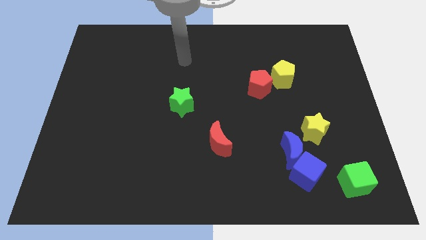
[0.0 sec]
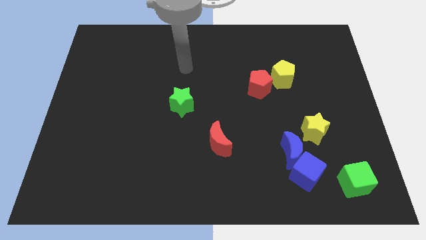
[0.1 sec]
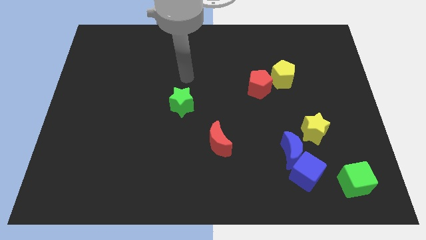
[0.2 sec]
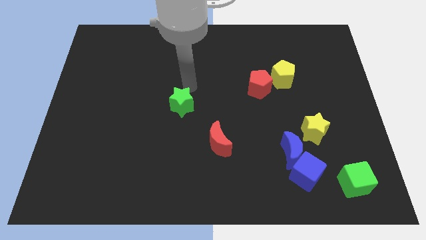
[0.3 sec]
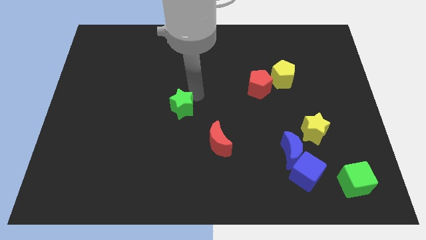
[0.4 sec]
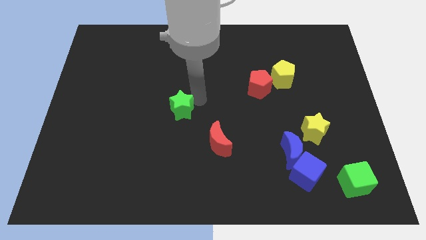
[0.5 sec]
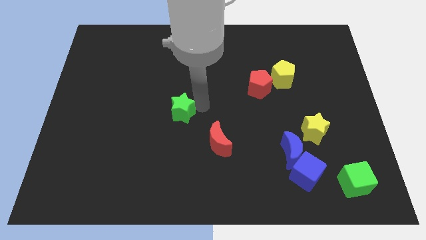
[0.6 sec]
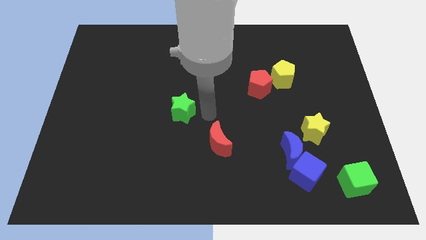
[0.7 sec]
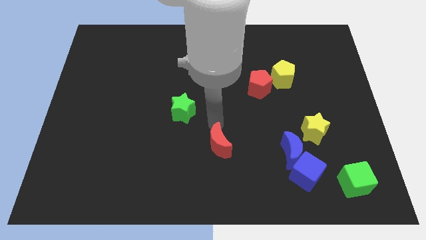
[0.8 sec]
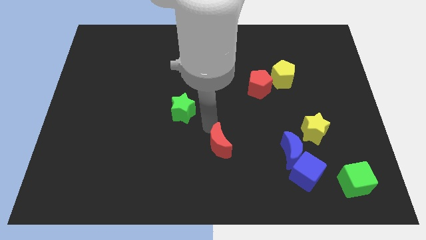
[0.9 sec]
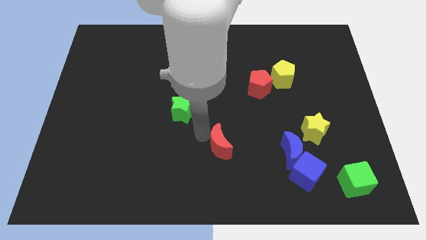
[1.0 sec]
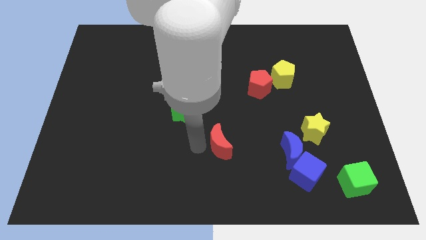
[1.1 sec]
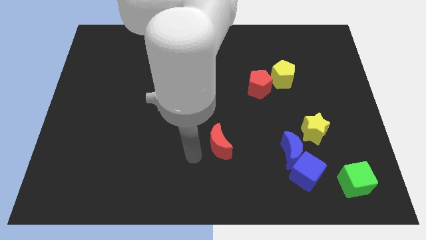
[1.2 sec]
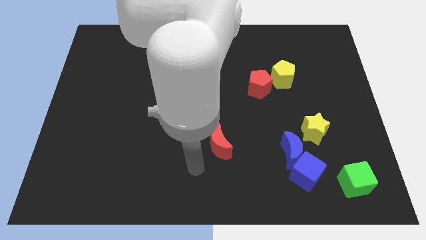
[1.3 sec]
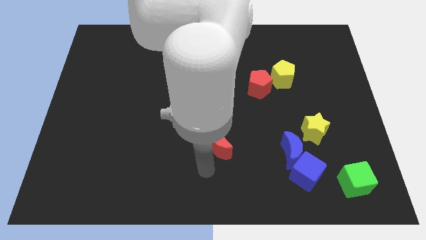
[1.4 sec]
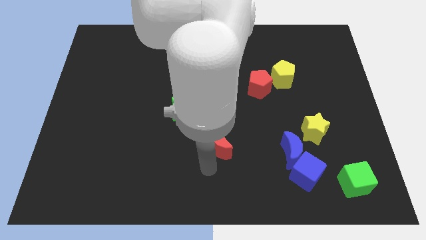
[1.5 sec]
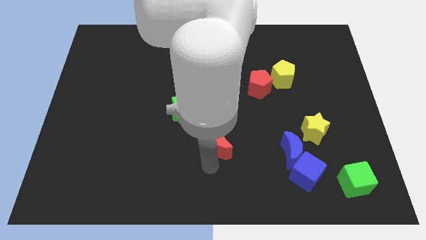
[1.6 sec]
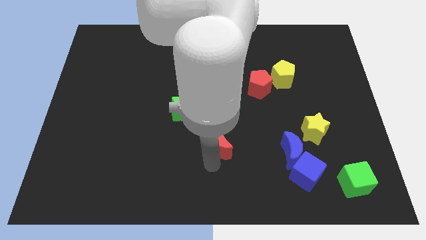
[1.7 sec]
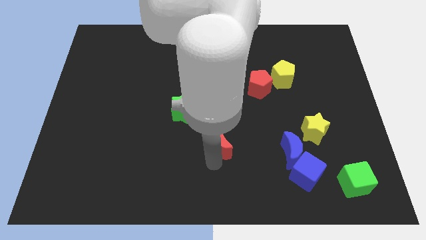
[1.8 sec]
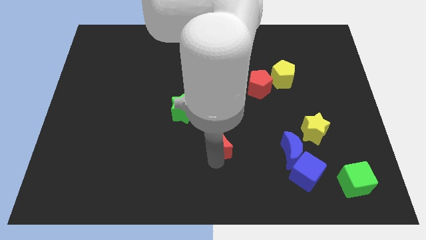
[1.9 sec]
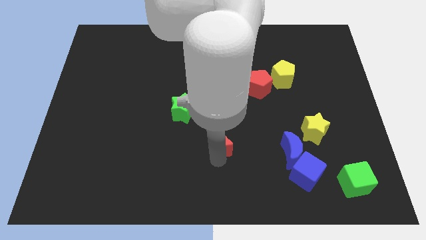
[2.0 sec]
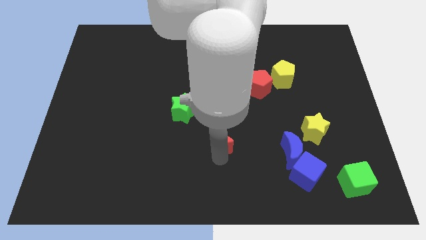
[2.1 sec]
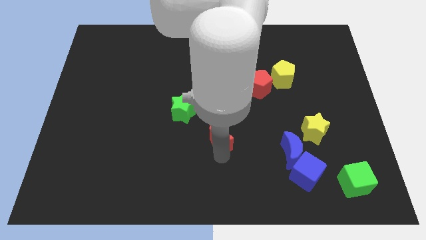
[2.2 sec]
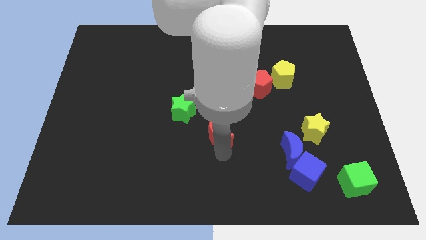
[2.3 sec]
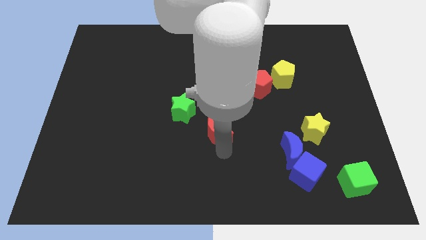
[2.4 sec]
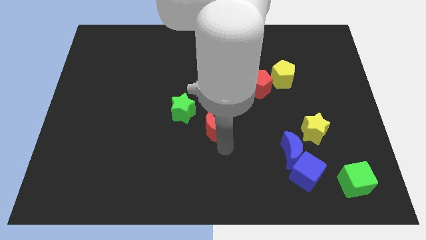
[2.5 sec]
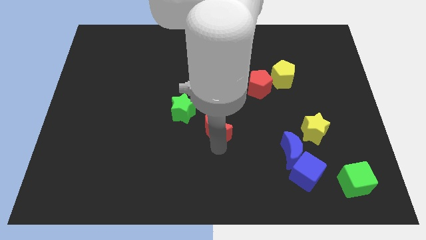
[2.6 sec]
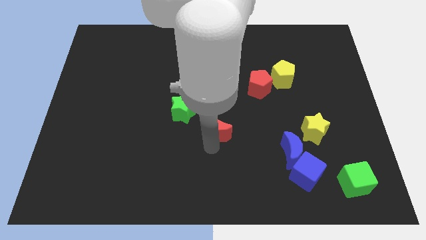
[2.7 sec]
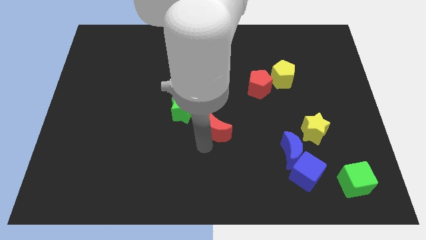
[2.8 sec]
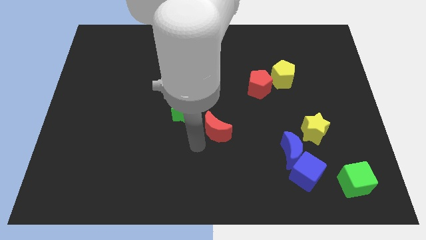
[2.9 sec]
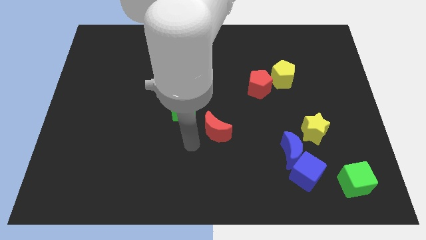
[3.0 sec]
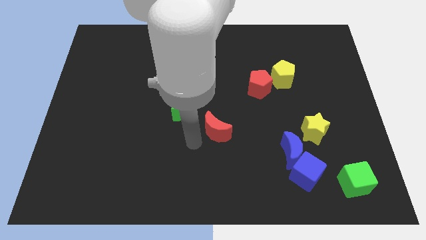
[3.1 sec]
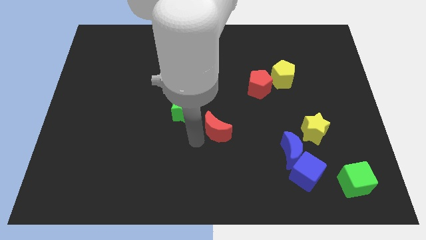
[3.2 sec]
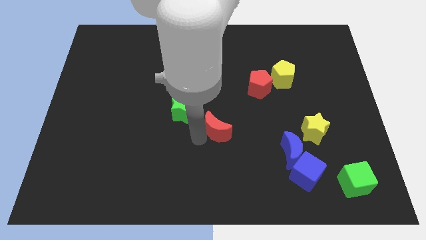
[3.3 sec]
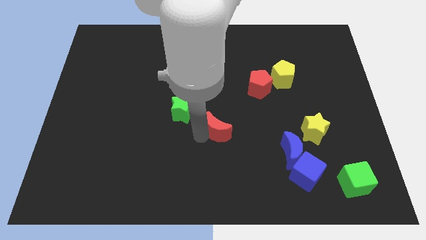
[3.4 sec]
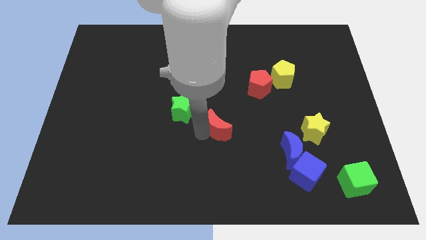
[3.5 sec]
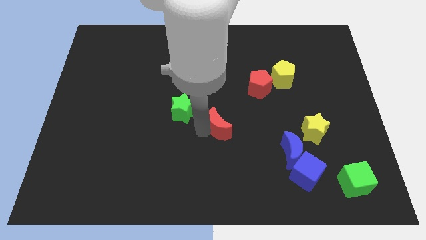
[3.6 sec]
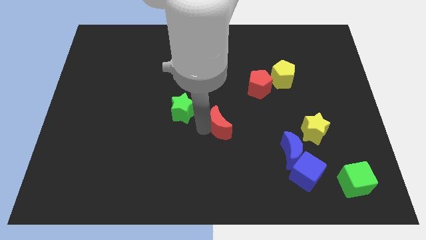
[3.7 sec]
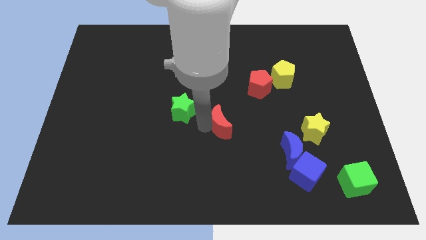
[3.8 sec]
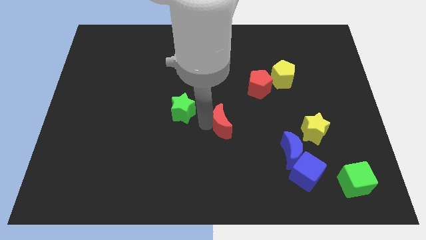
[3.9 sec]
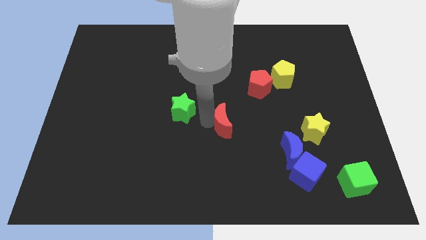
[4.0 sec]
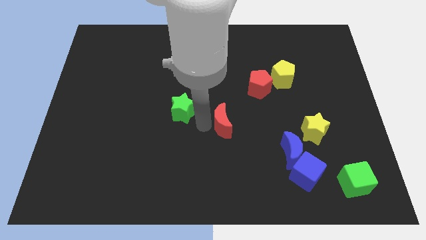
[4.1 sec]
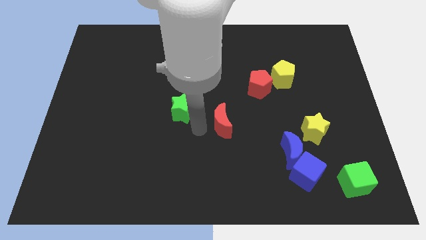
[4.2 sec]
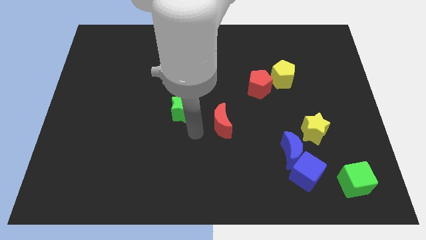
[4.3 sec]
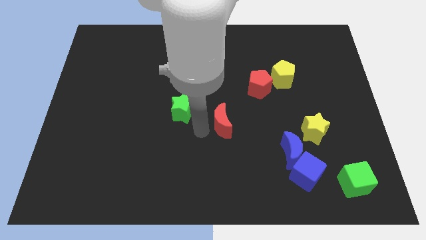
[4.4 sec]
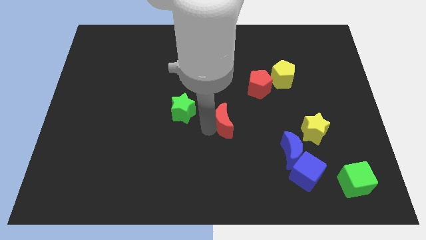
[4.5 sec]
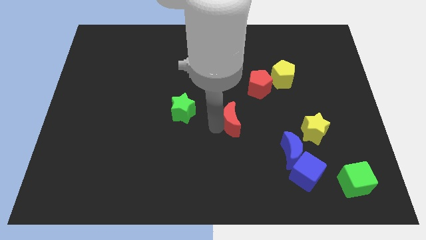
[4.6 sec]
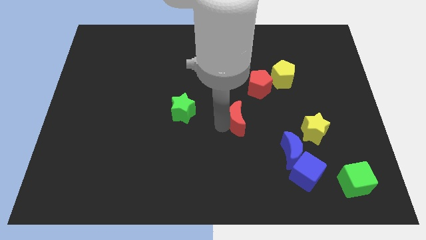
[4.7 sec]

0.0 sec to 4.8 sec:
slightly slide the red moon diagonally up and to the right

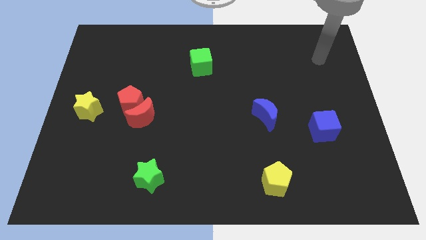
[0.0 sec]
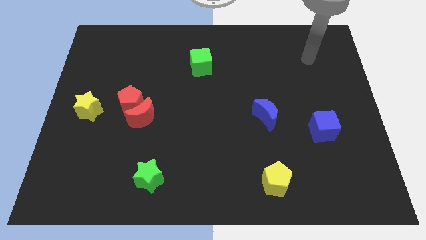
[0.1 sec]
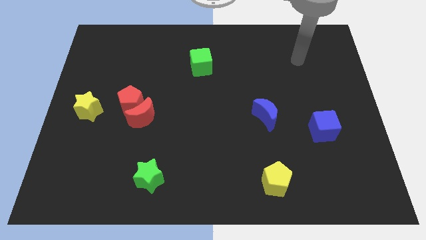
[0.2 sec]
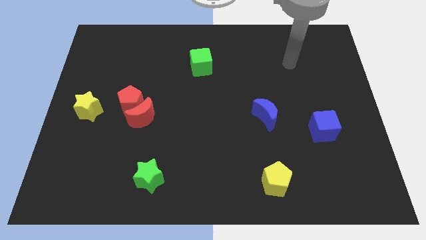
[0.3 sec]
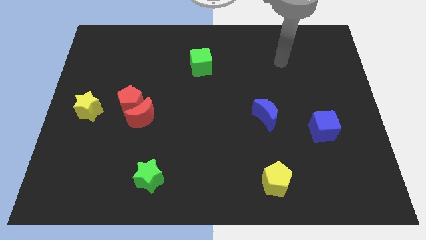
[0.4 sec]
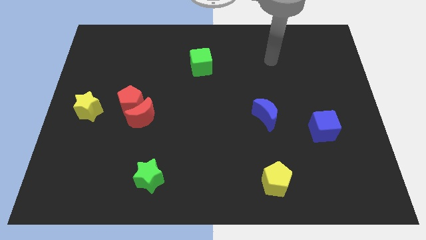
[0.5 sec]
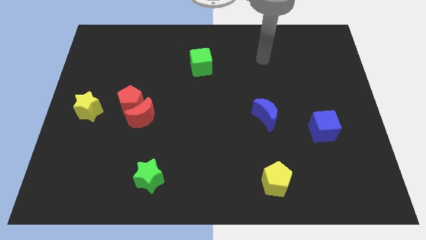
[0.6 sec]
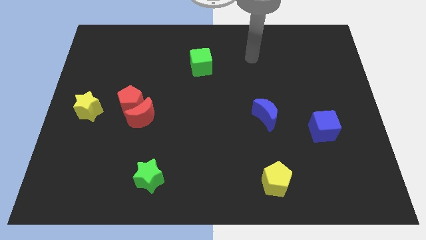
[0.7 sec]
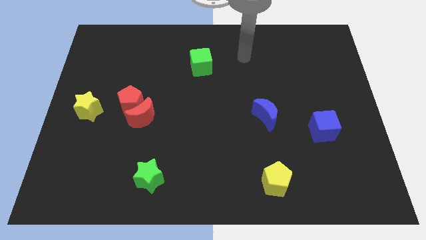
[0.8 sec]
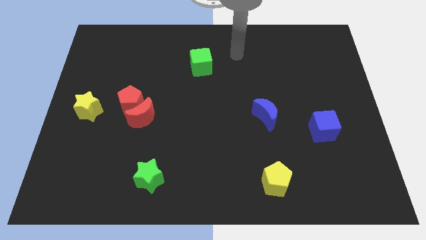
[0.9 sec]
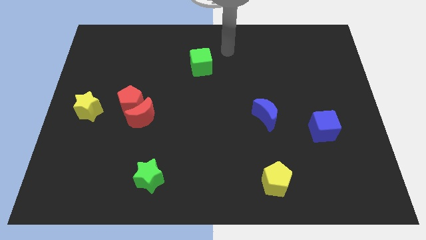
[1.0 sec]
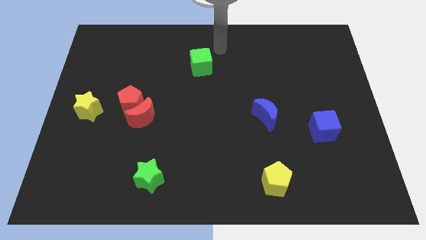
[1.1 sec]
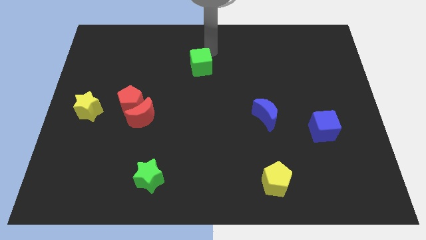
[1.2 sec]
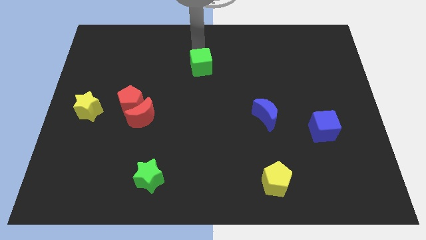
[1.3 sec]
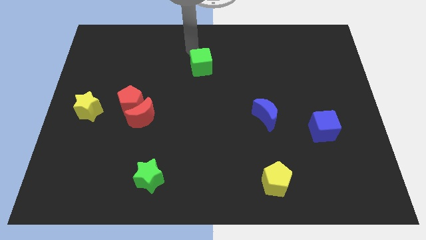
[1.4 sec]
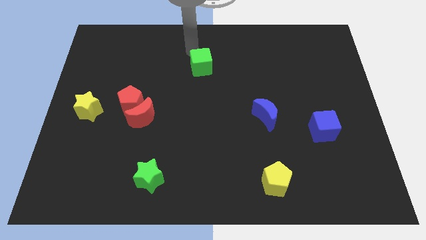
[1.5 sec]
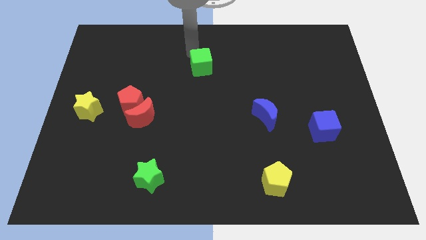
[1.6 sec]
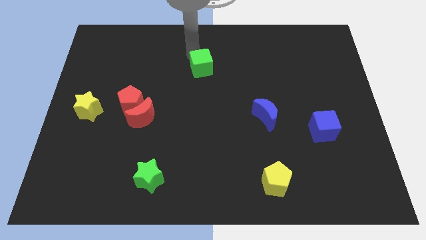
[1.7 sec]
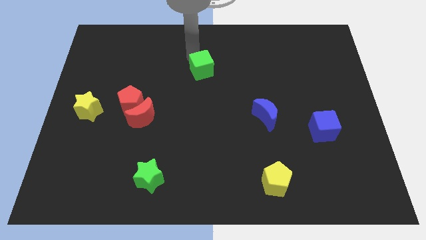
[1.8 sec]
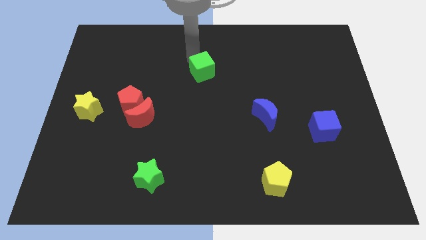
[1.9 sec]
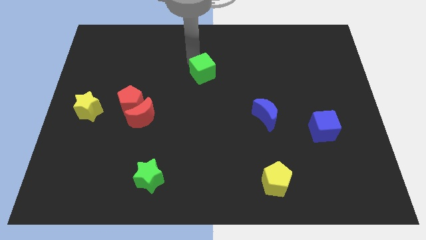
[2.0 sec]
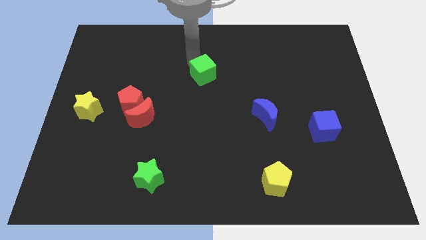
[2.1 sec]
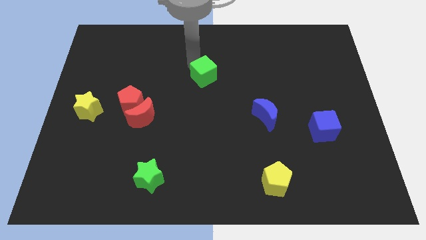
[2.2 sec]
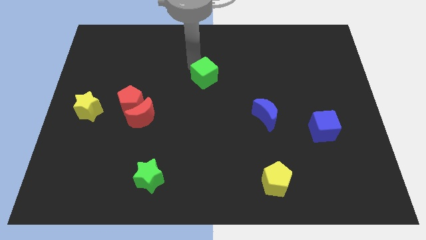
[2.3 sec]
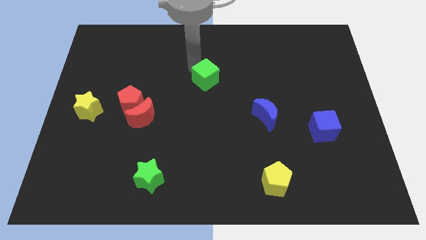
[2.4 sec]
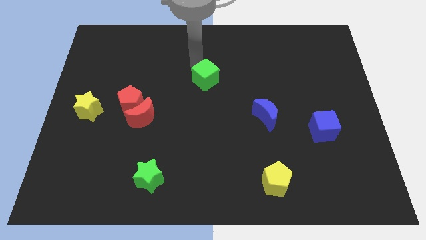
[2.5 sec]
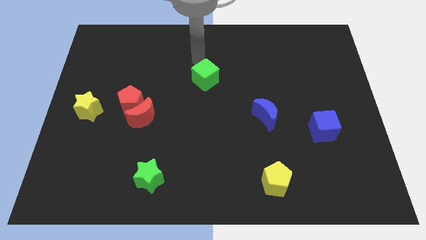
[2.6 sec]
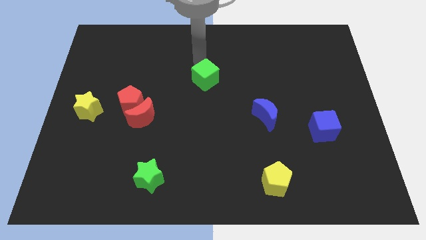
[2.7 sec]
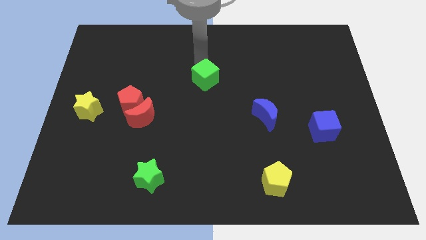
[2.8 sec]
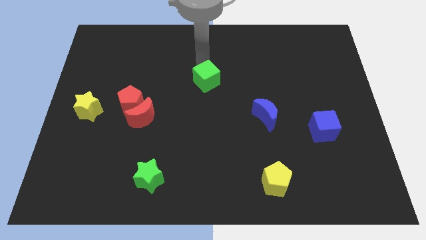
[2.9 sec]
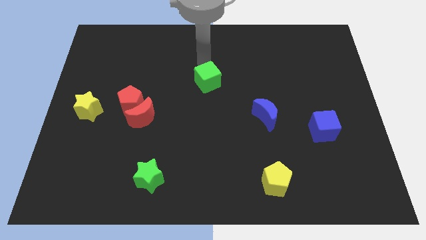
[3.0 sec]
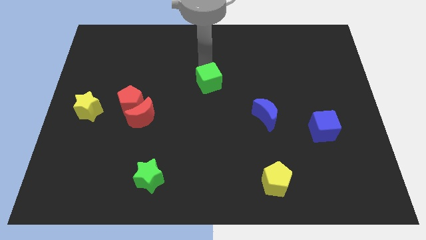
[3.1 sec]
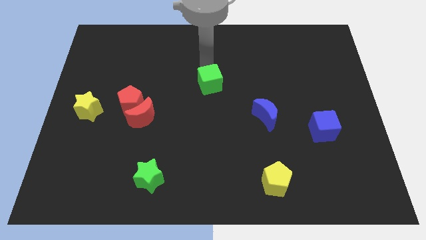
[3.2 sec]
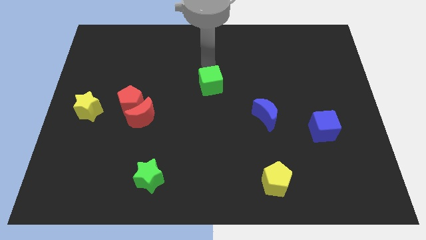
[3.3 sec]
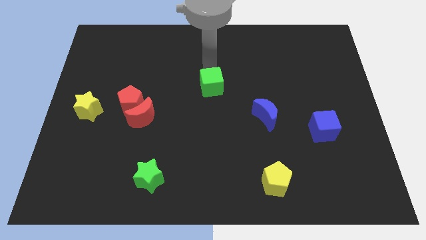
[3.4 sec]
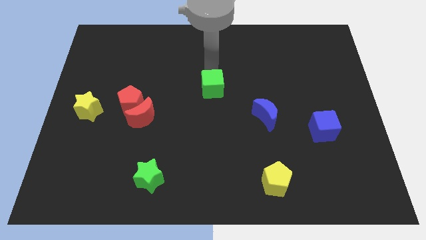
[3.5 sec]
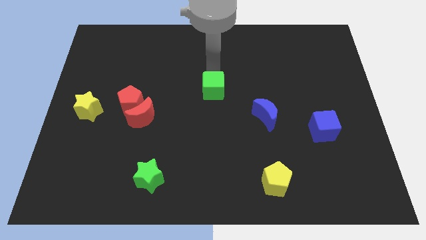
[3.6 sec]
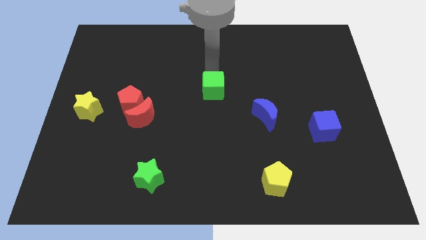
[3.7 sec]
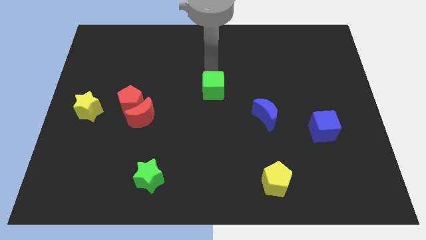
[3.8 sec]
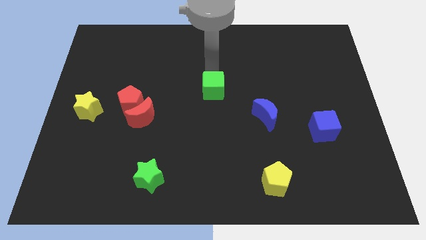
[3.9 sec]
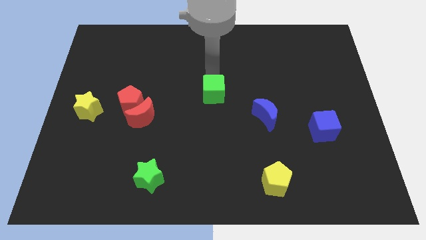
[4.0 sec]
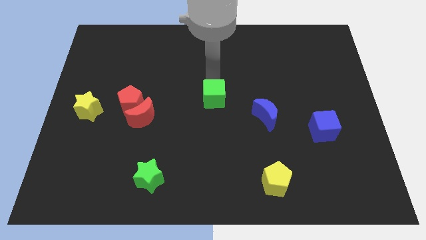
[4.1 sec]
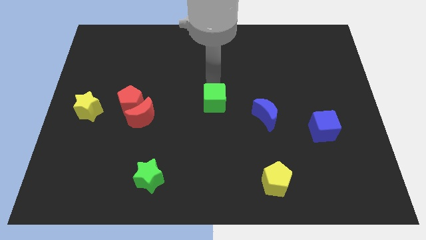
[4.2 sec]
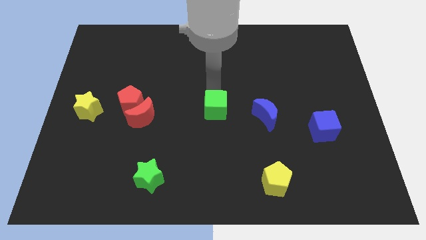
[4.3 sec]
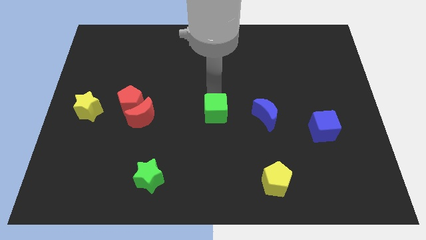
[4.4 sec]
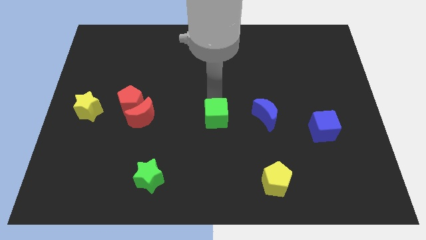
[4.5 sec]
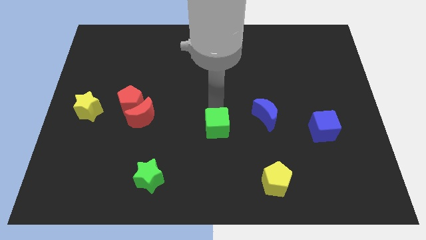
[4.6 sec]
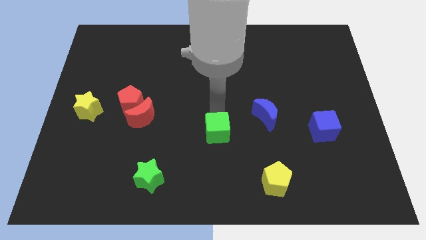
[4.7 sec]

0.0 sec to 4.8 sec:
slide the green cube down
